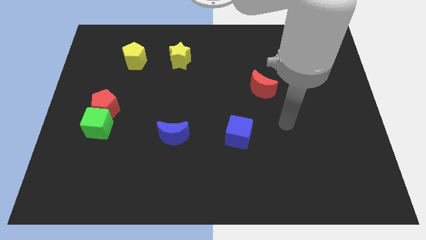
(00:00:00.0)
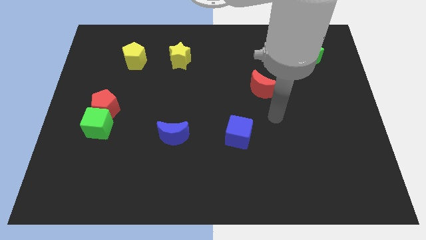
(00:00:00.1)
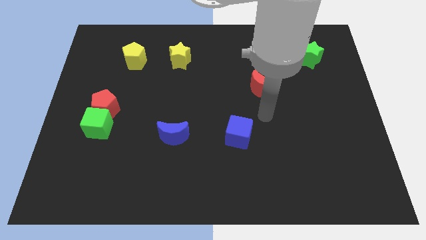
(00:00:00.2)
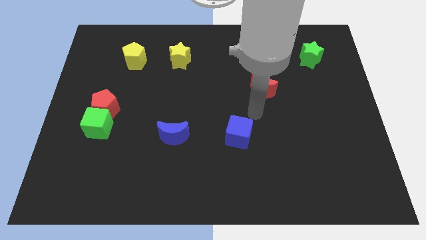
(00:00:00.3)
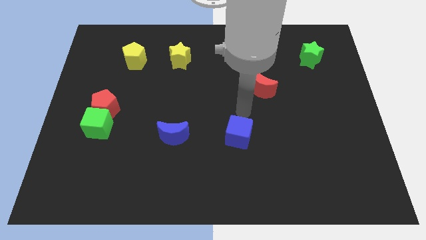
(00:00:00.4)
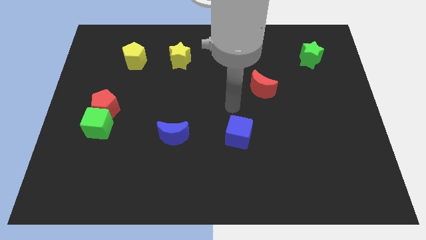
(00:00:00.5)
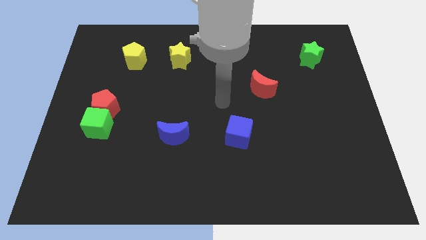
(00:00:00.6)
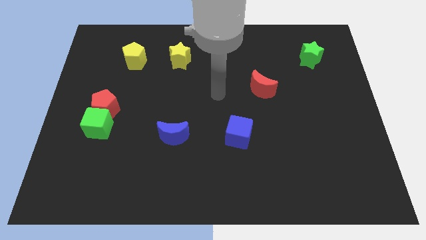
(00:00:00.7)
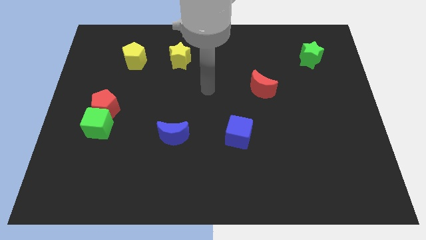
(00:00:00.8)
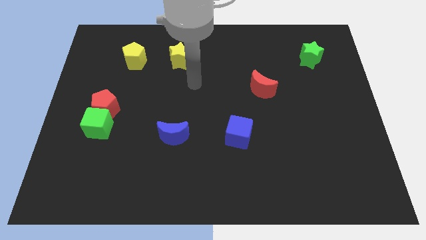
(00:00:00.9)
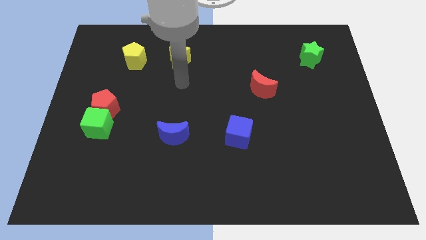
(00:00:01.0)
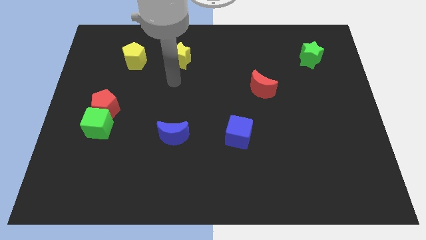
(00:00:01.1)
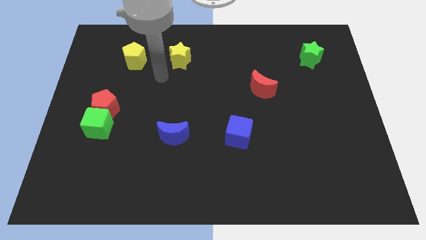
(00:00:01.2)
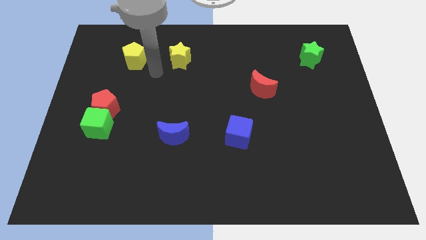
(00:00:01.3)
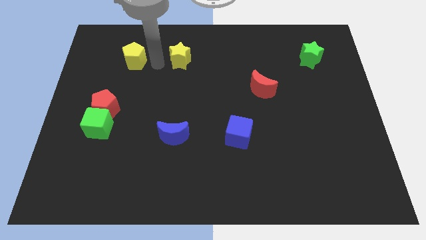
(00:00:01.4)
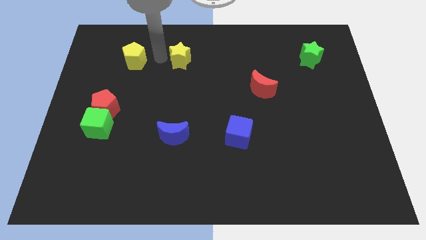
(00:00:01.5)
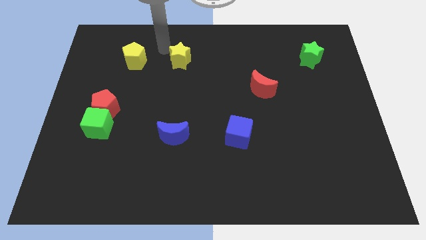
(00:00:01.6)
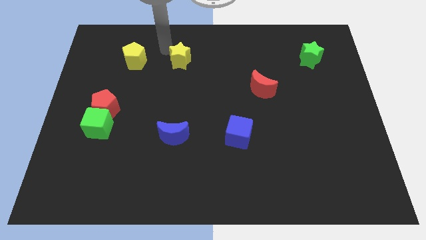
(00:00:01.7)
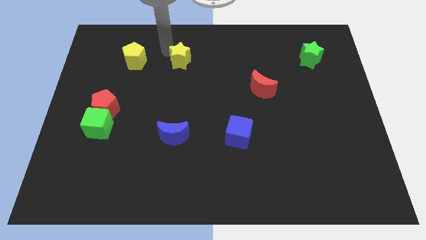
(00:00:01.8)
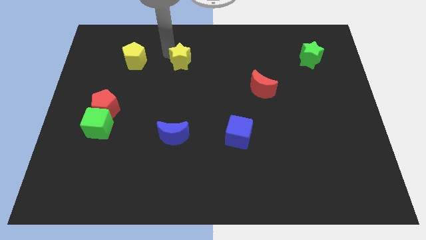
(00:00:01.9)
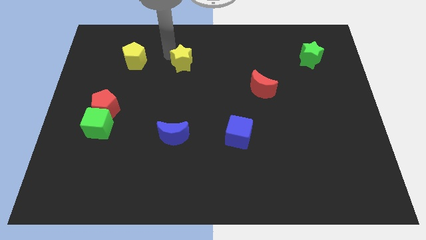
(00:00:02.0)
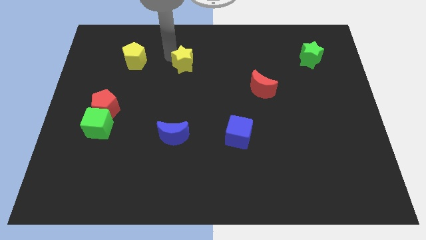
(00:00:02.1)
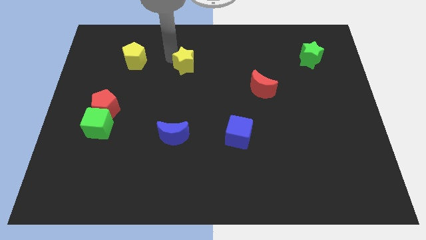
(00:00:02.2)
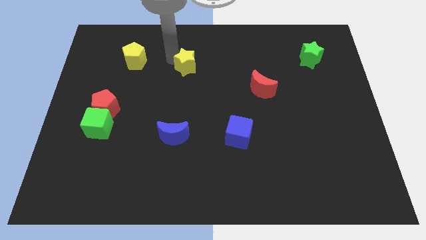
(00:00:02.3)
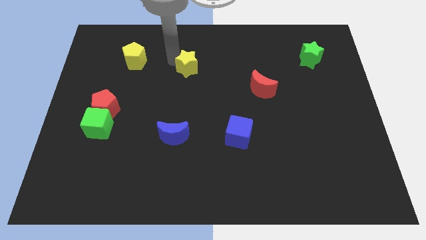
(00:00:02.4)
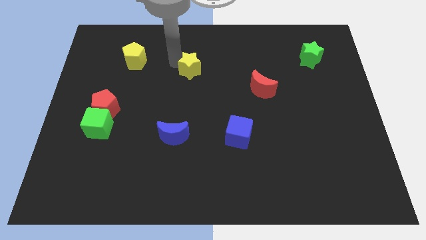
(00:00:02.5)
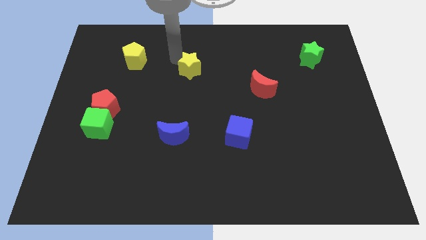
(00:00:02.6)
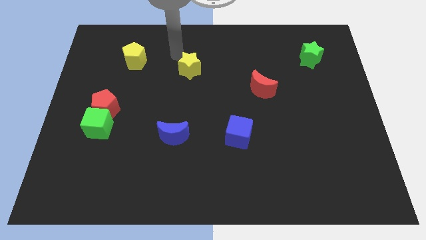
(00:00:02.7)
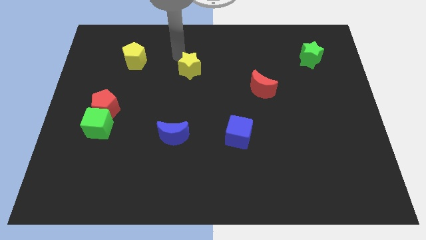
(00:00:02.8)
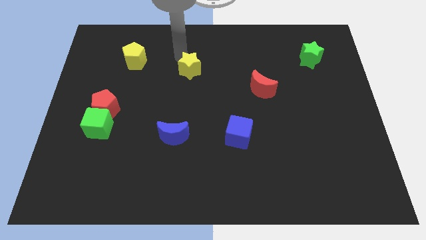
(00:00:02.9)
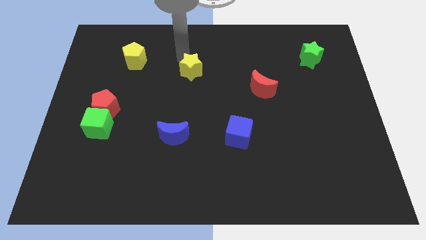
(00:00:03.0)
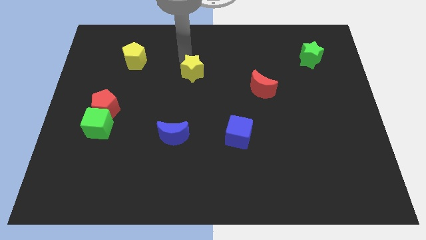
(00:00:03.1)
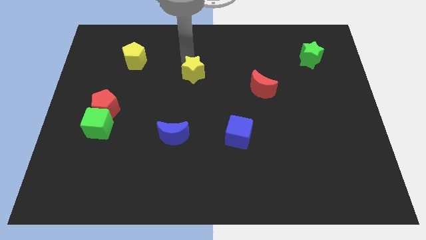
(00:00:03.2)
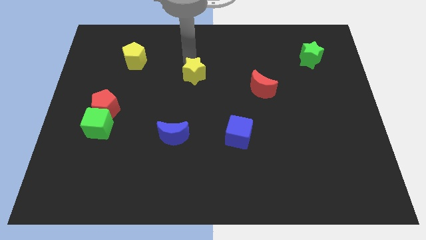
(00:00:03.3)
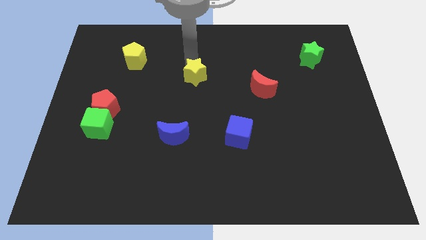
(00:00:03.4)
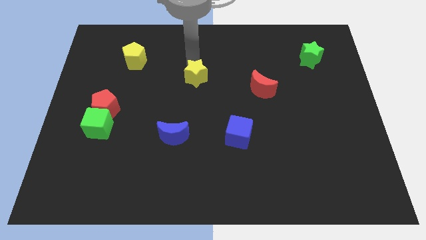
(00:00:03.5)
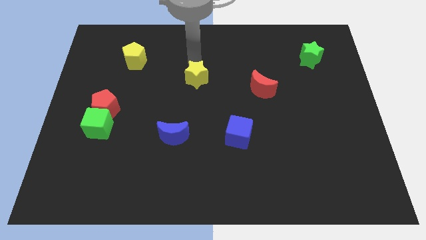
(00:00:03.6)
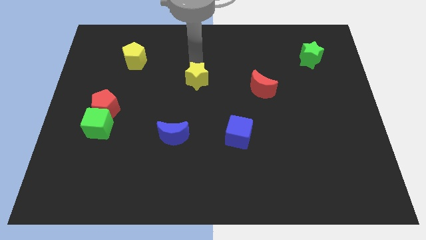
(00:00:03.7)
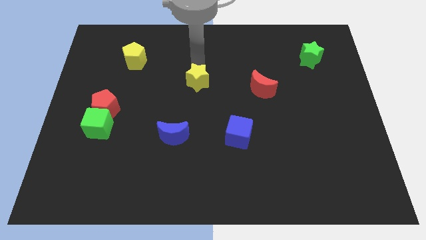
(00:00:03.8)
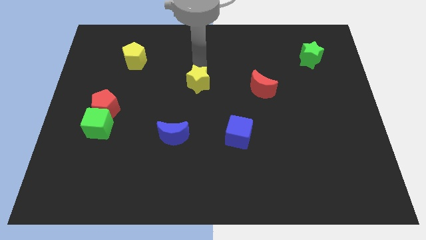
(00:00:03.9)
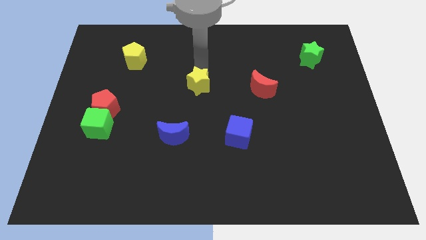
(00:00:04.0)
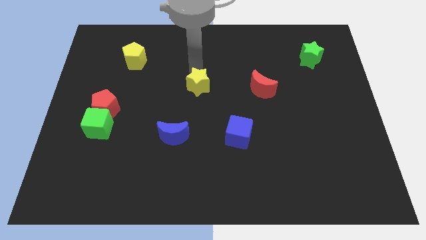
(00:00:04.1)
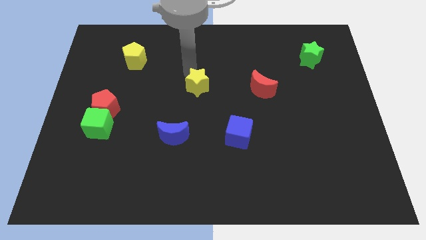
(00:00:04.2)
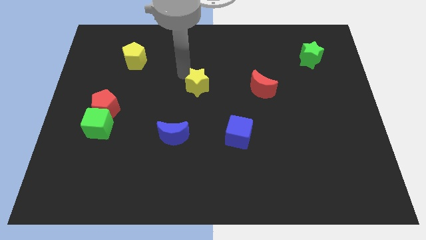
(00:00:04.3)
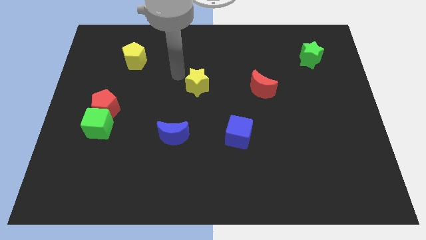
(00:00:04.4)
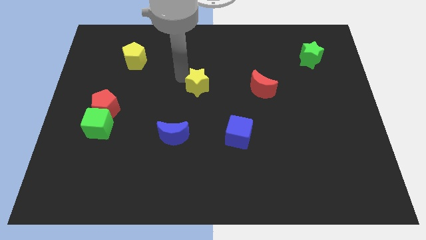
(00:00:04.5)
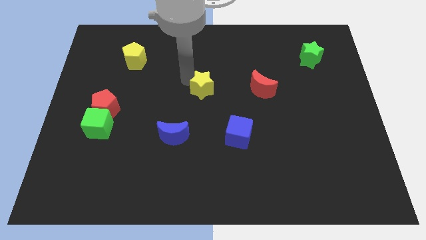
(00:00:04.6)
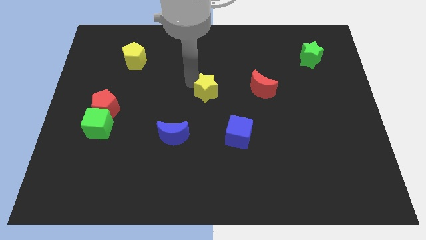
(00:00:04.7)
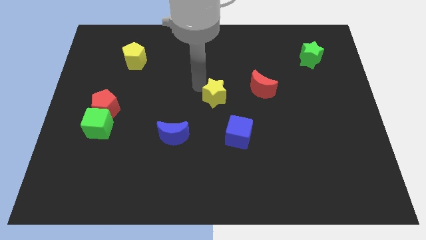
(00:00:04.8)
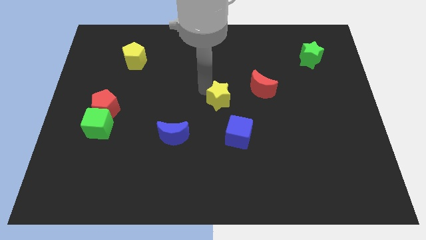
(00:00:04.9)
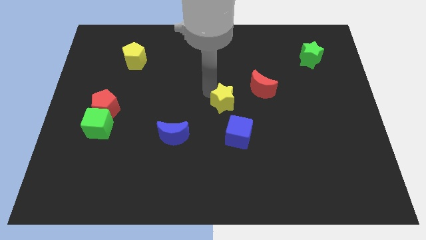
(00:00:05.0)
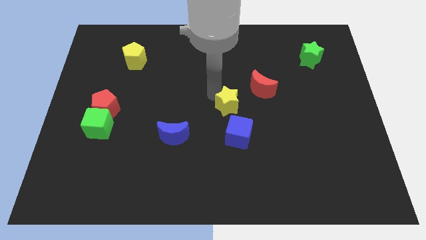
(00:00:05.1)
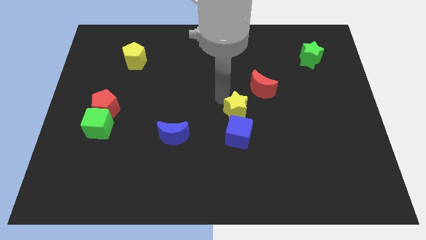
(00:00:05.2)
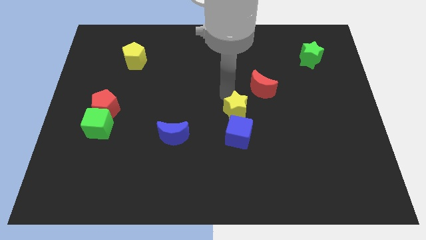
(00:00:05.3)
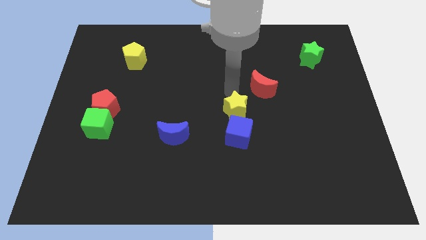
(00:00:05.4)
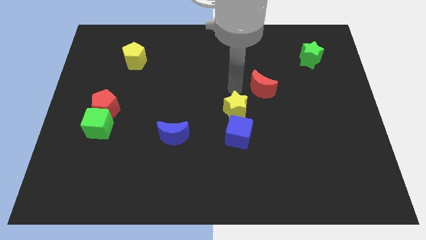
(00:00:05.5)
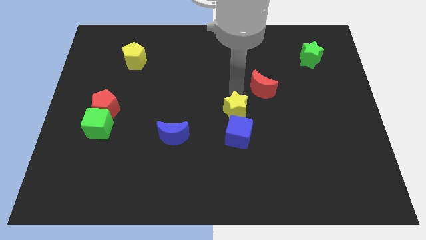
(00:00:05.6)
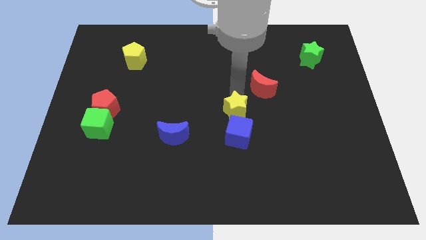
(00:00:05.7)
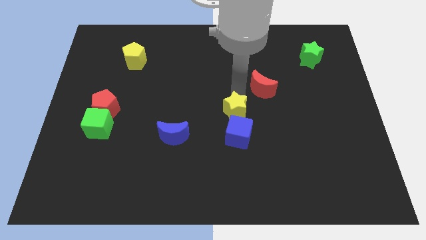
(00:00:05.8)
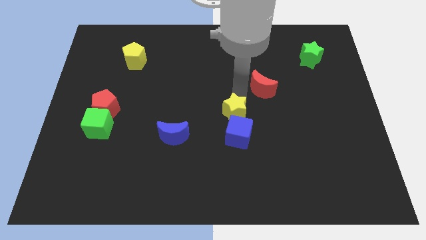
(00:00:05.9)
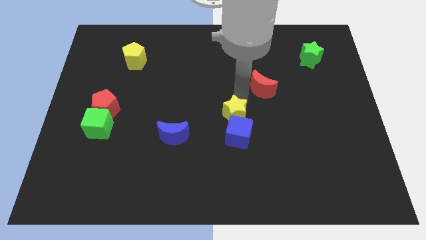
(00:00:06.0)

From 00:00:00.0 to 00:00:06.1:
move the yellow star towards the blue cube

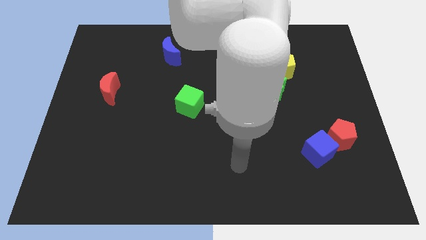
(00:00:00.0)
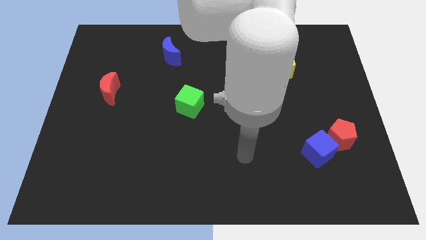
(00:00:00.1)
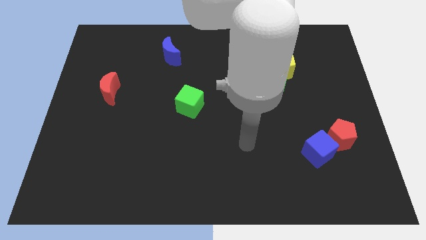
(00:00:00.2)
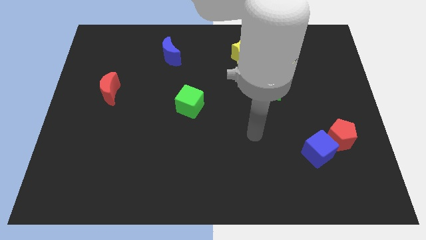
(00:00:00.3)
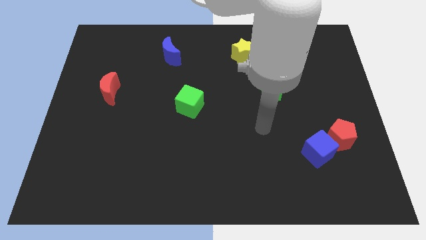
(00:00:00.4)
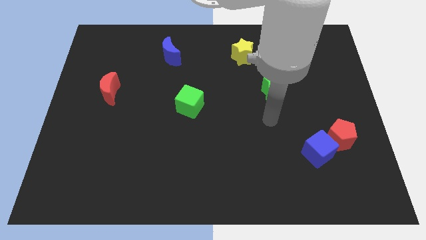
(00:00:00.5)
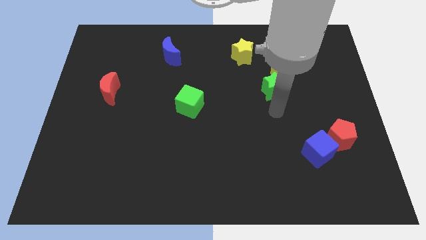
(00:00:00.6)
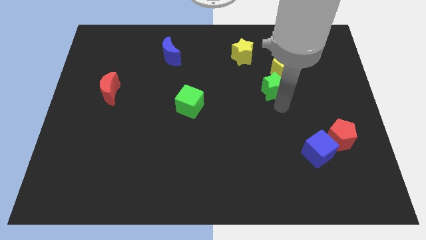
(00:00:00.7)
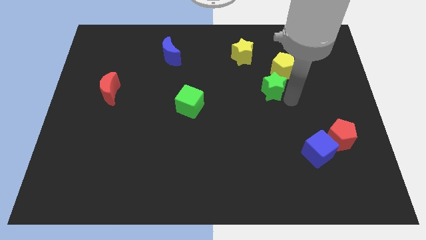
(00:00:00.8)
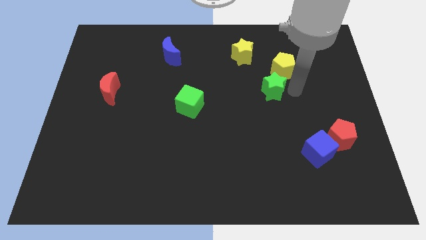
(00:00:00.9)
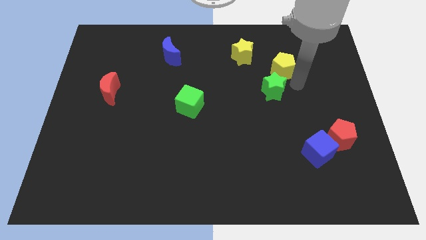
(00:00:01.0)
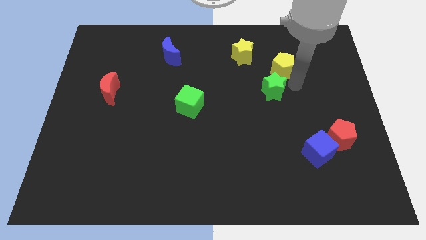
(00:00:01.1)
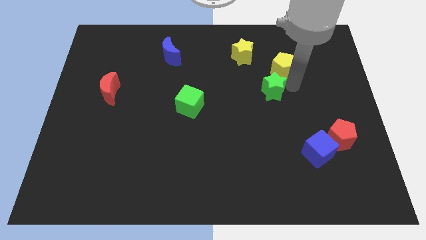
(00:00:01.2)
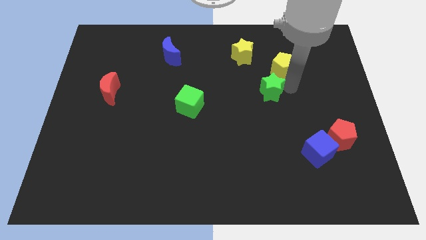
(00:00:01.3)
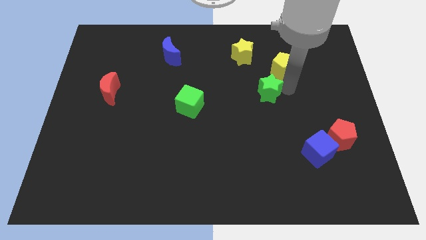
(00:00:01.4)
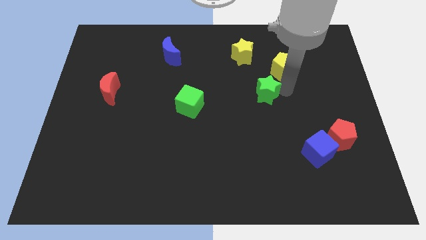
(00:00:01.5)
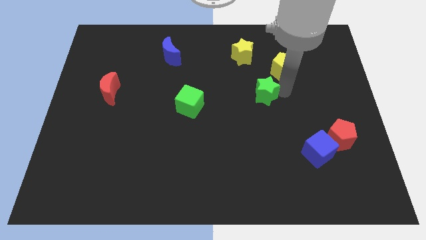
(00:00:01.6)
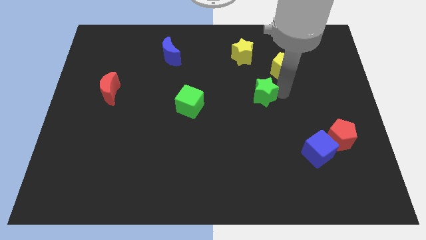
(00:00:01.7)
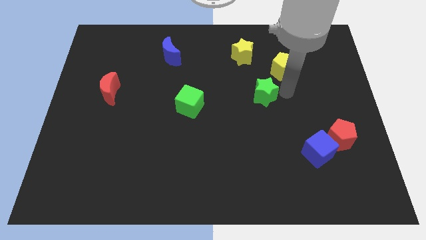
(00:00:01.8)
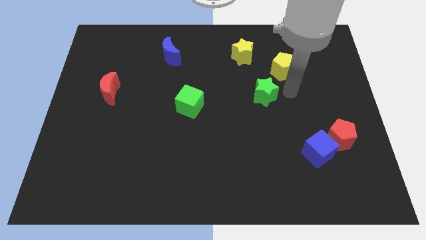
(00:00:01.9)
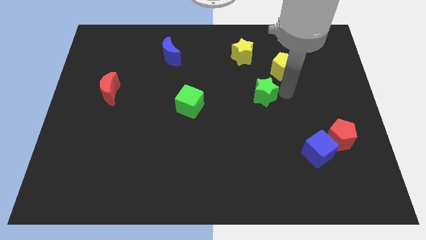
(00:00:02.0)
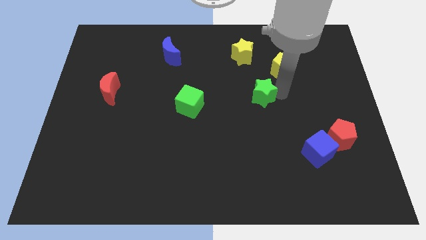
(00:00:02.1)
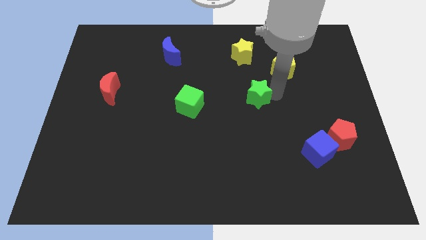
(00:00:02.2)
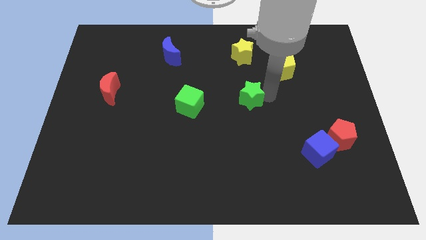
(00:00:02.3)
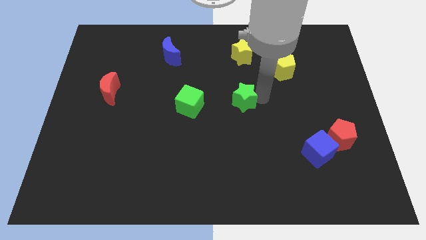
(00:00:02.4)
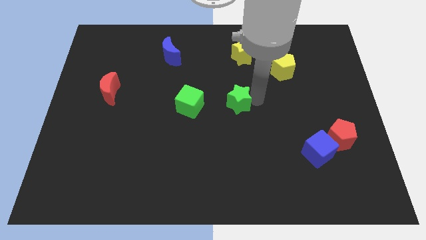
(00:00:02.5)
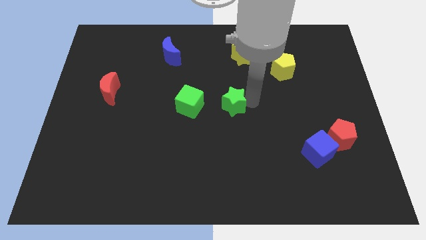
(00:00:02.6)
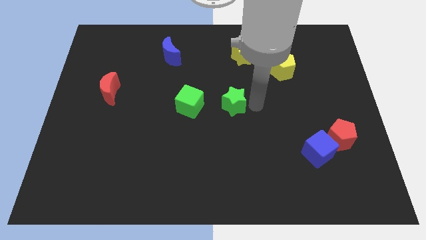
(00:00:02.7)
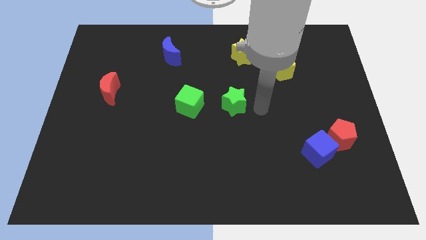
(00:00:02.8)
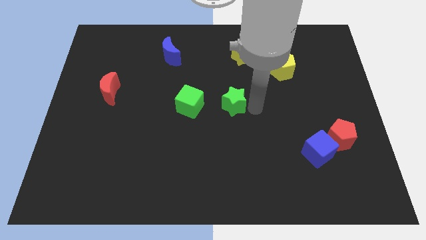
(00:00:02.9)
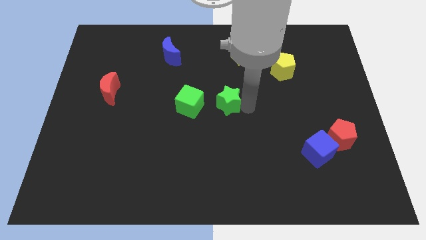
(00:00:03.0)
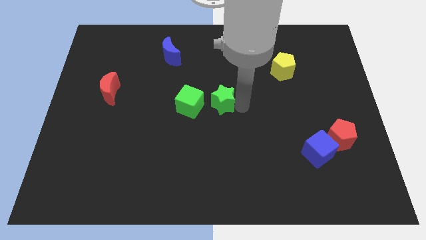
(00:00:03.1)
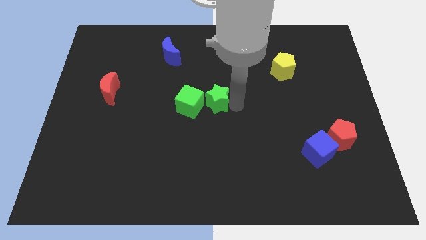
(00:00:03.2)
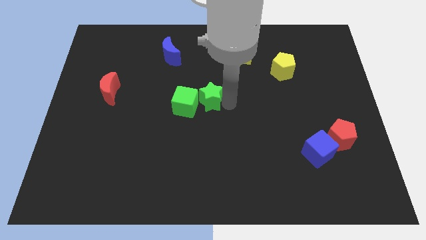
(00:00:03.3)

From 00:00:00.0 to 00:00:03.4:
put the green star to the green cube
